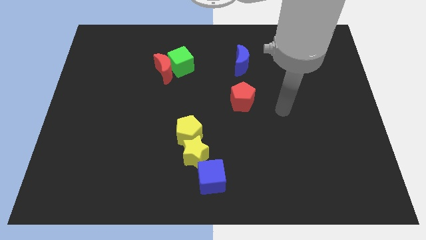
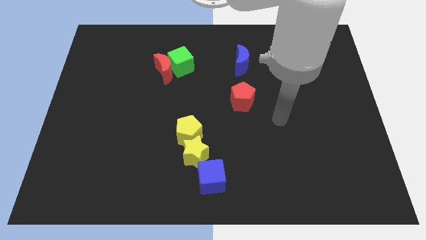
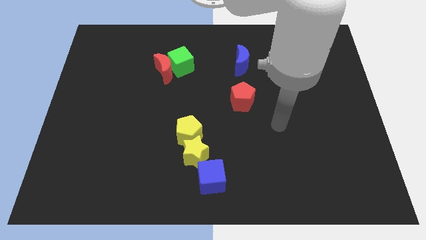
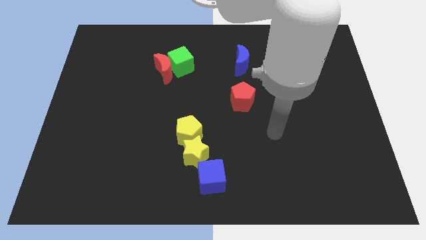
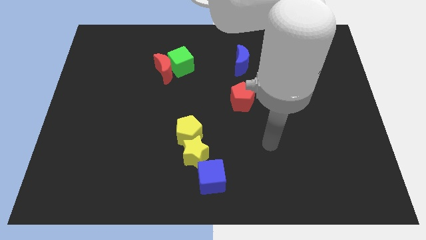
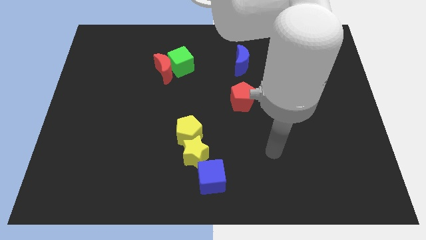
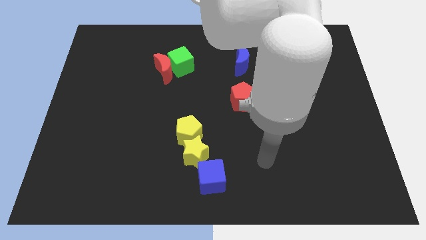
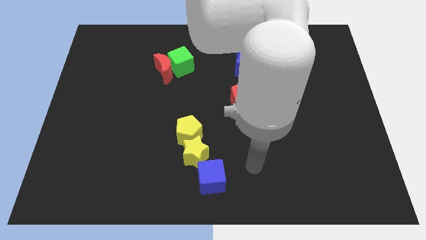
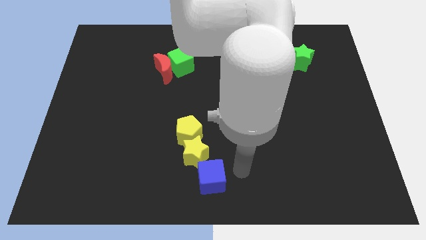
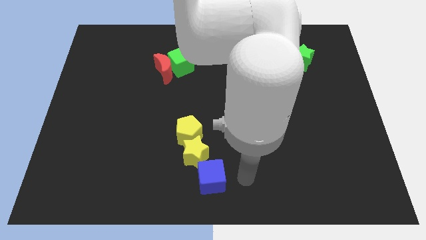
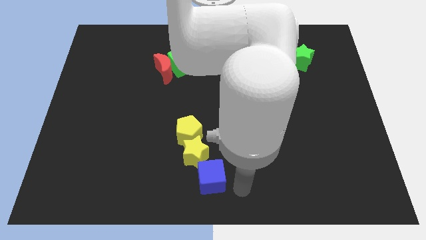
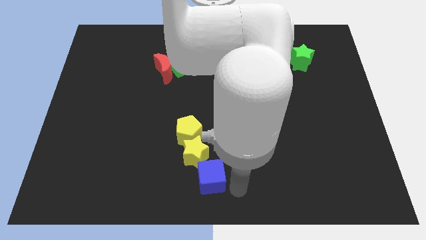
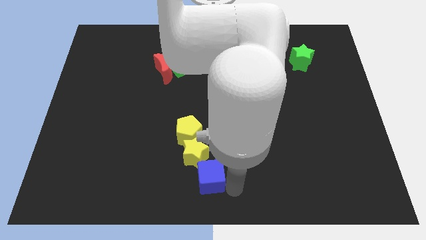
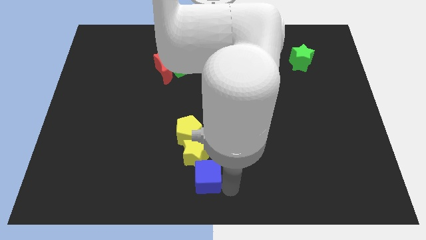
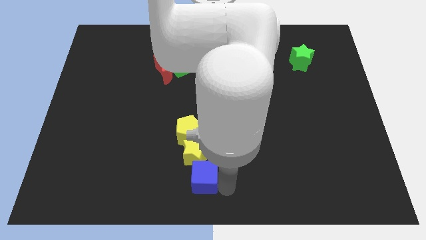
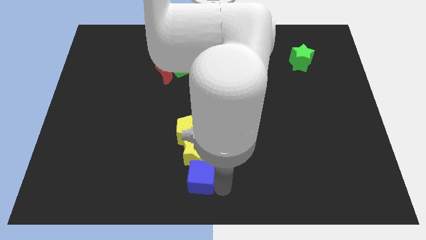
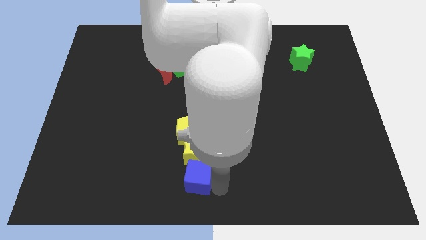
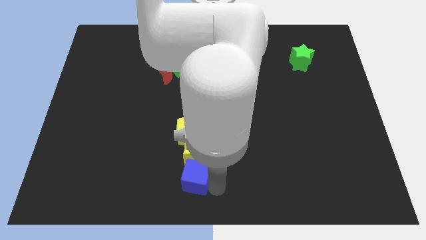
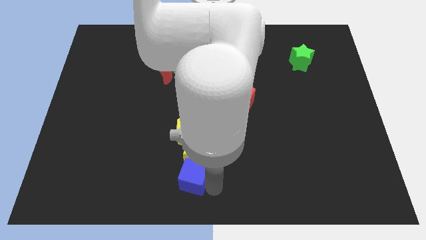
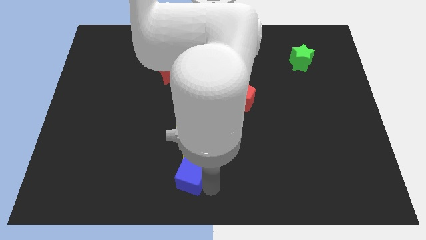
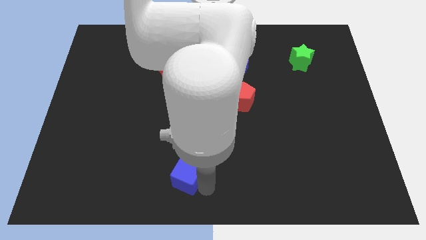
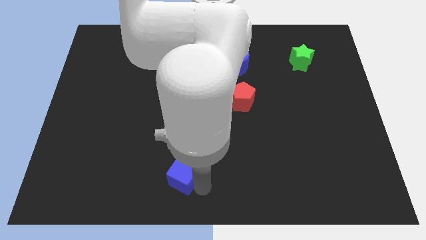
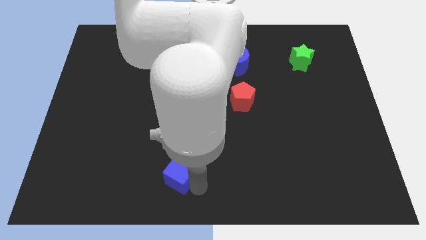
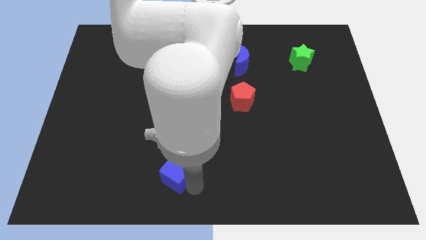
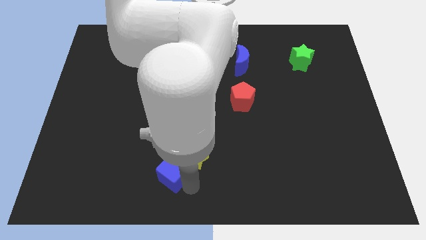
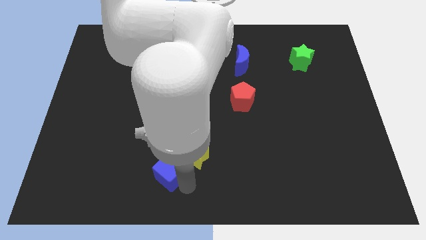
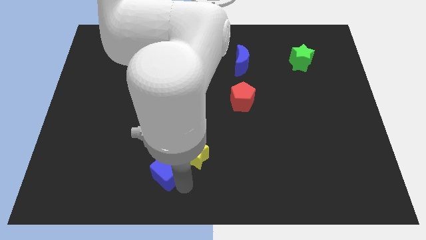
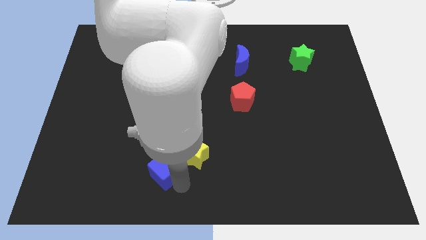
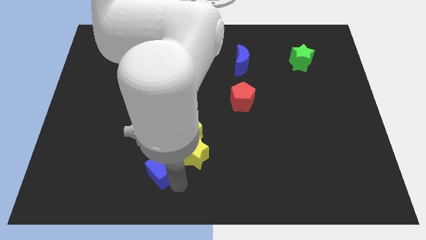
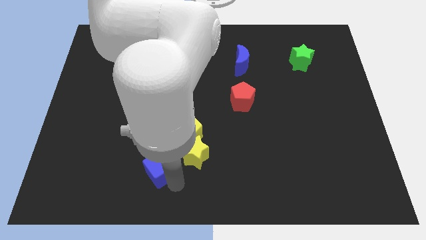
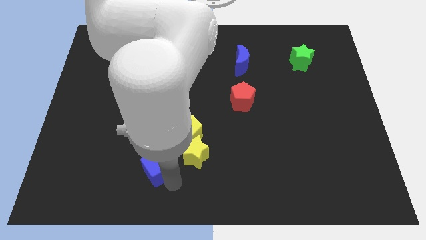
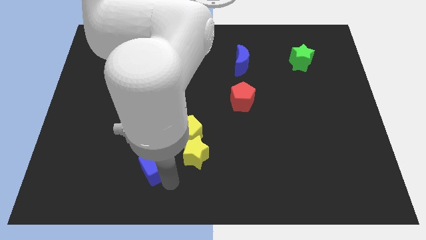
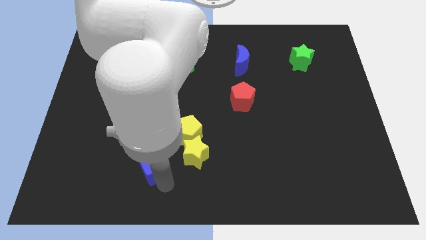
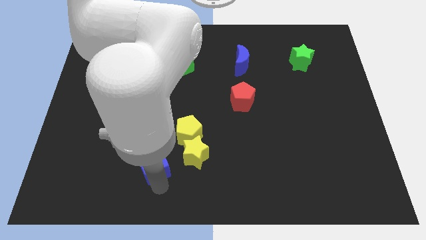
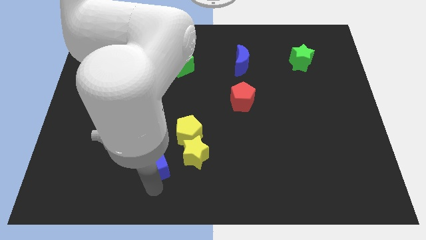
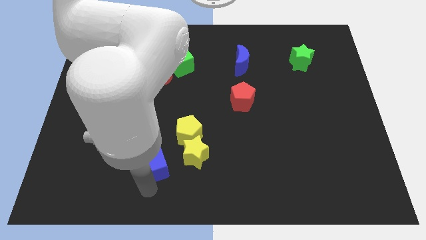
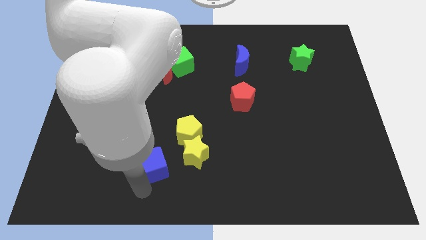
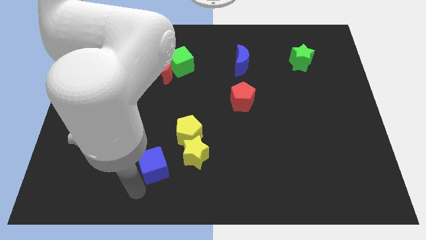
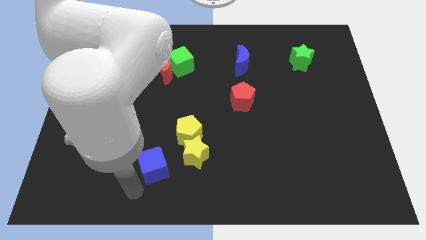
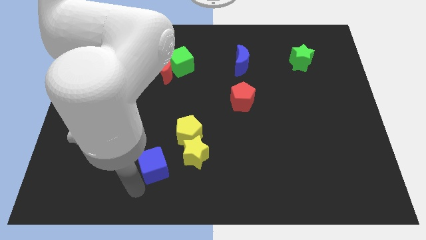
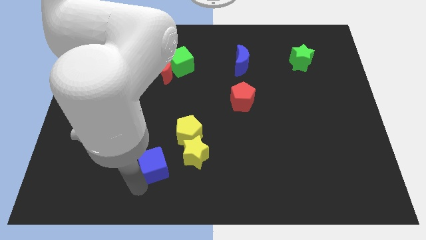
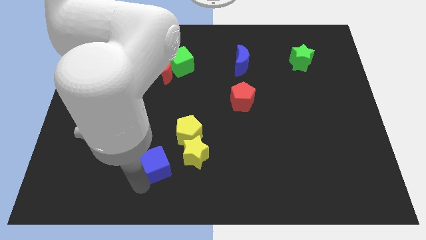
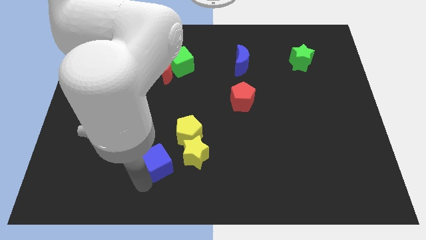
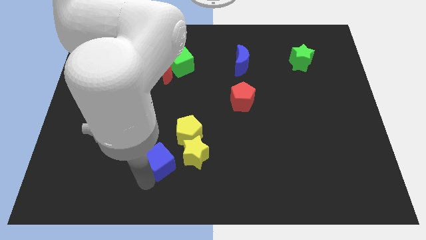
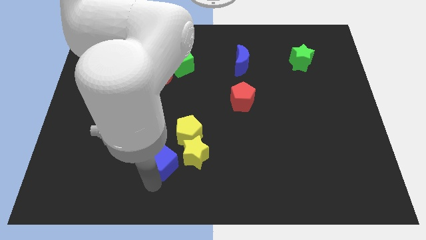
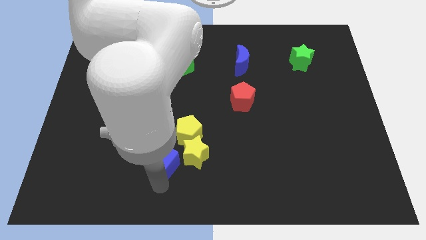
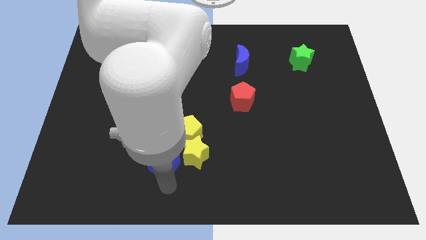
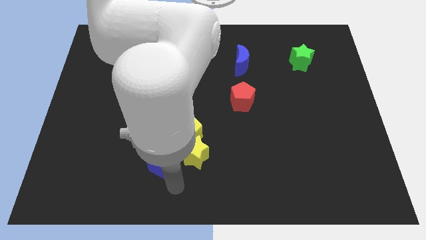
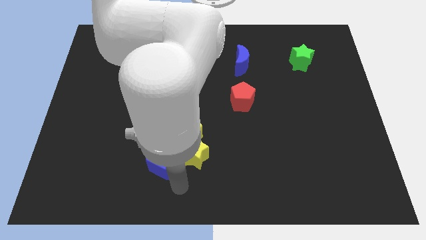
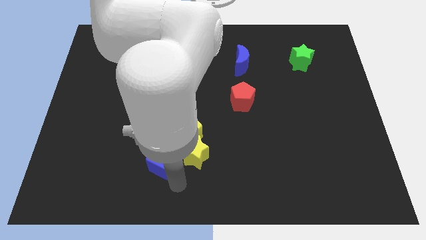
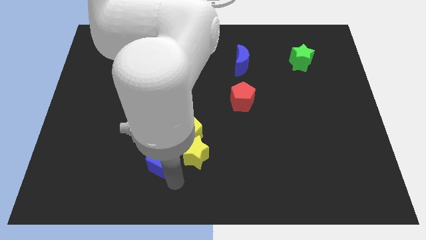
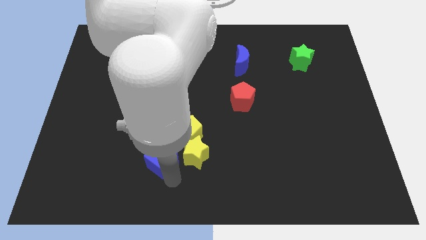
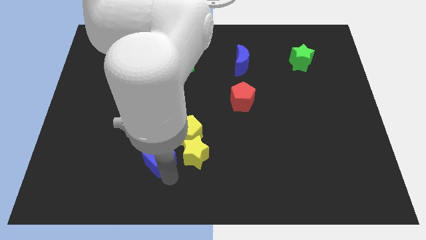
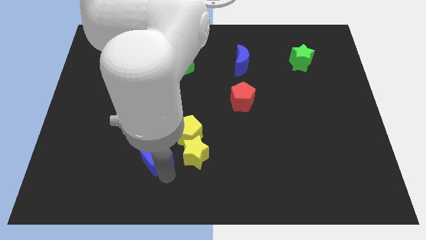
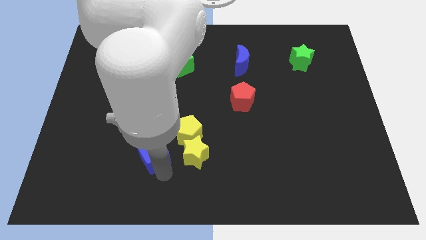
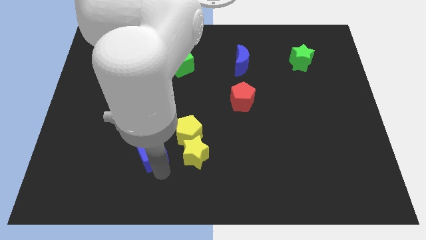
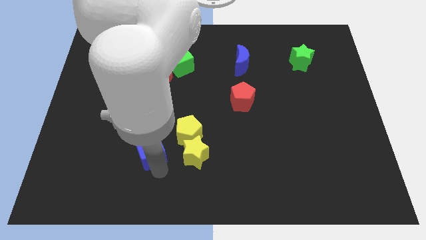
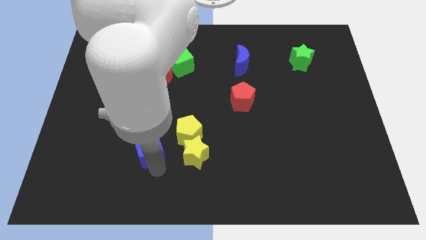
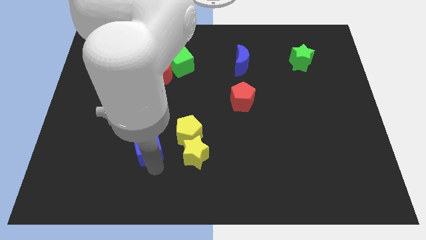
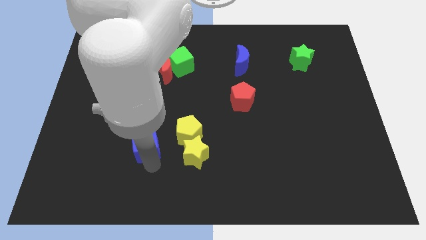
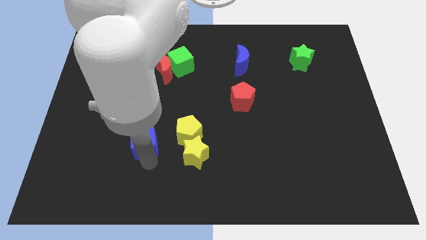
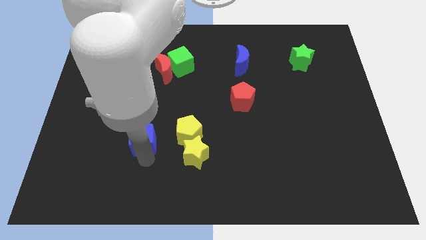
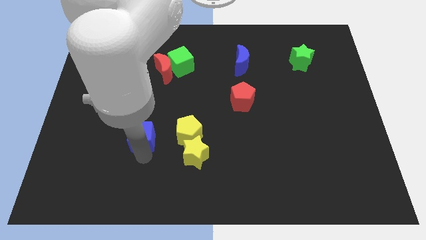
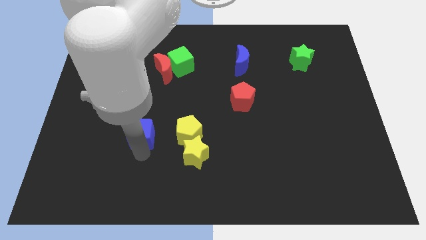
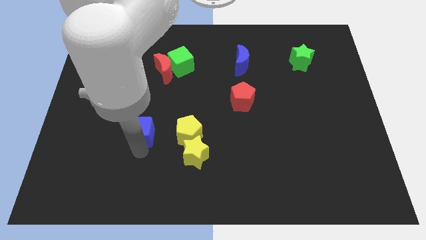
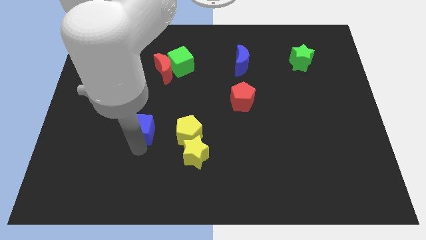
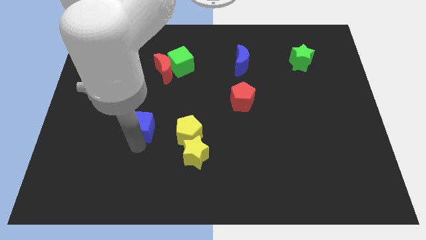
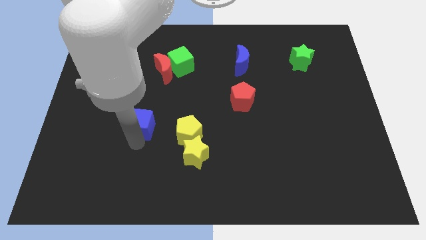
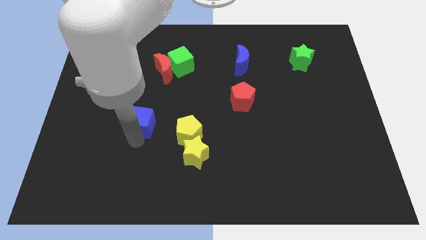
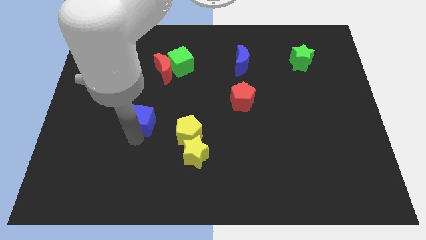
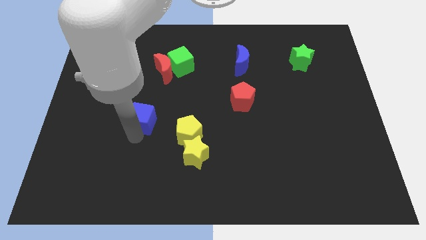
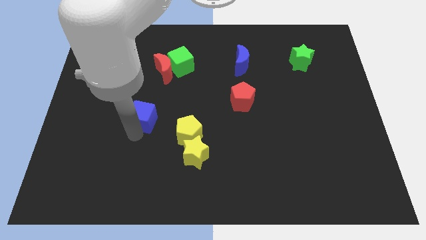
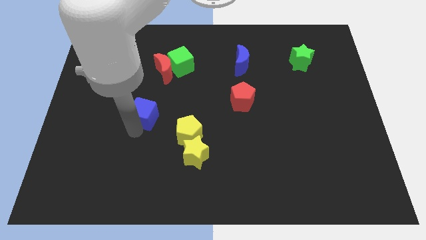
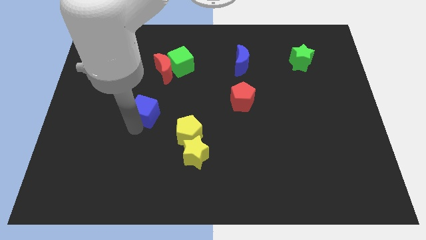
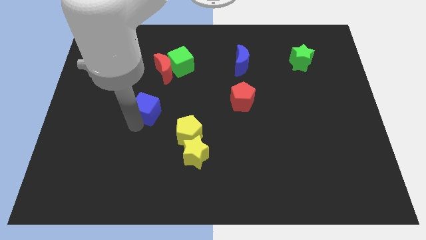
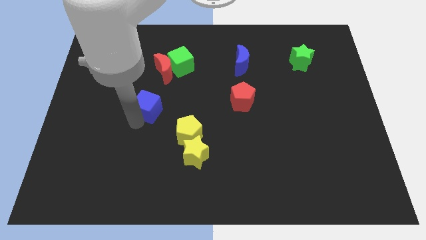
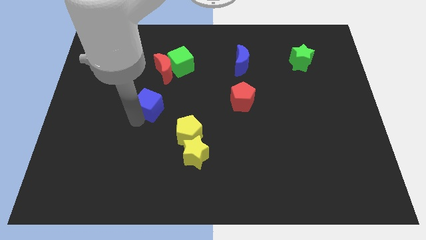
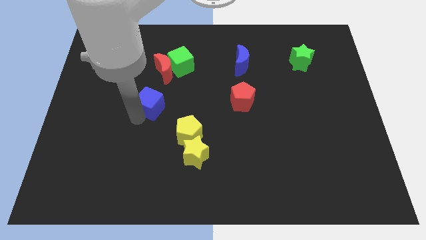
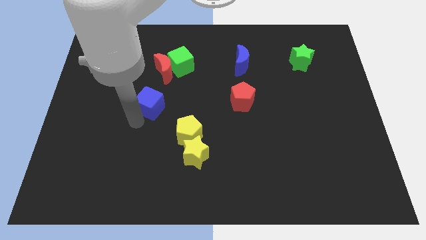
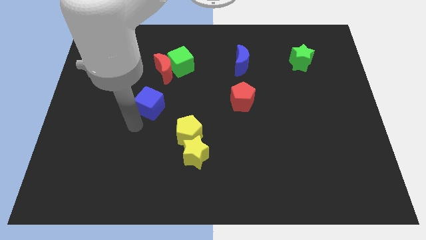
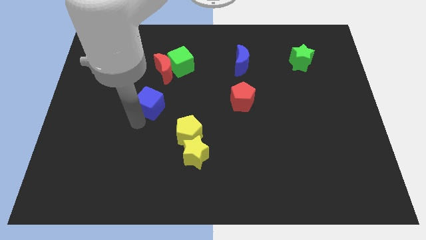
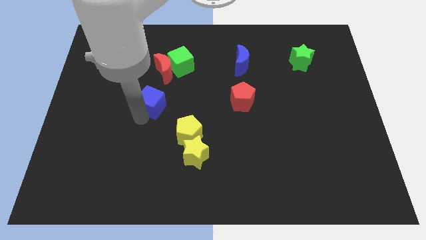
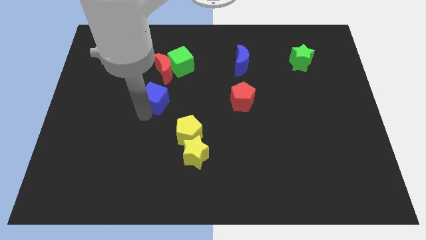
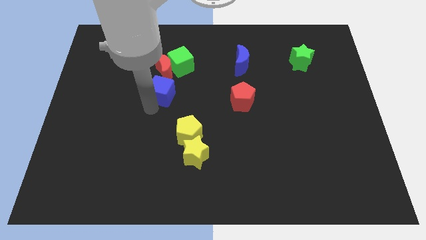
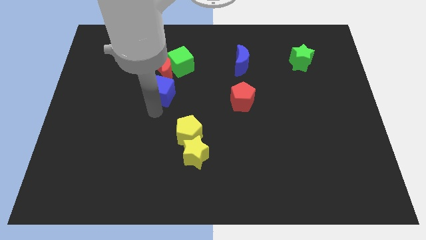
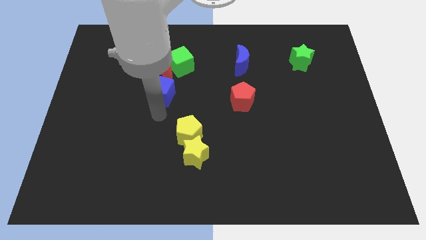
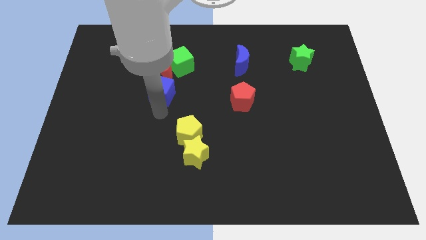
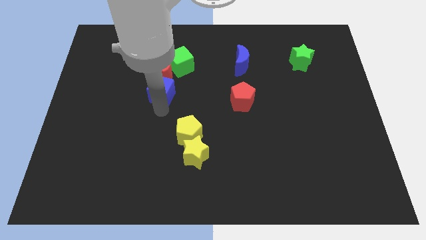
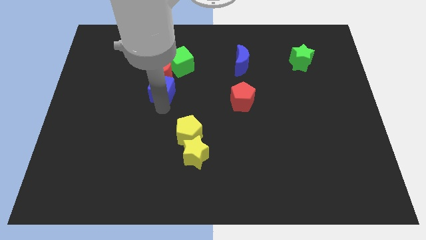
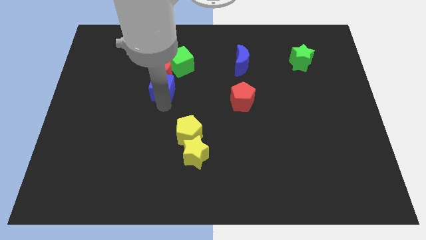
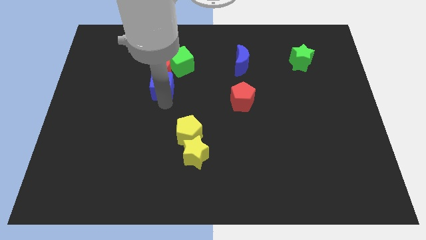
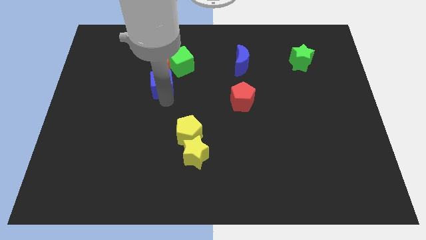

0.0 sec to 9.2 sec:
push the blue cube towards the red moon
